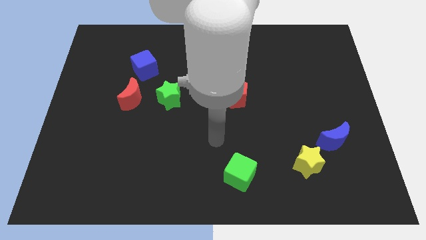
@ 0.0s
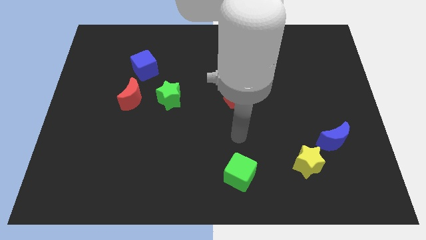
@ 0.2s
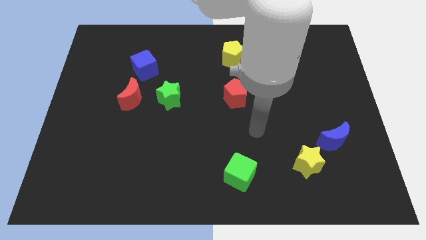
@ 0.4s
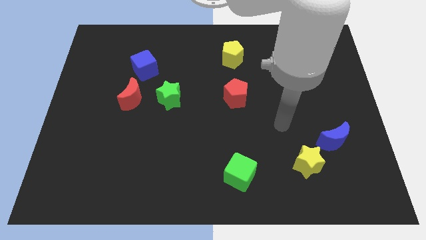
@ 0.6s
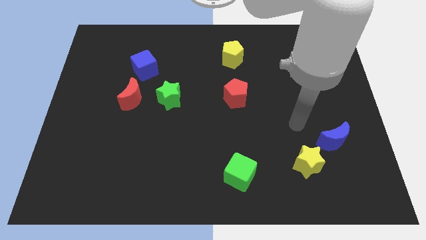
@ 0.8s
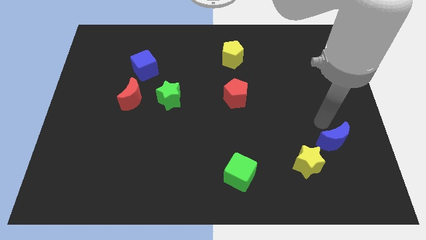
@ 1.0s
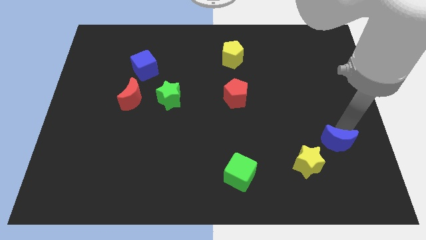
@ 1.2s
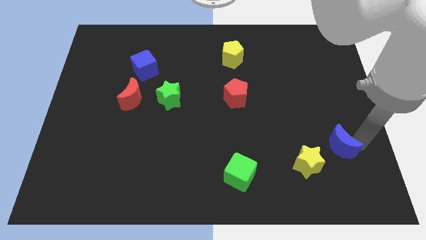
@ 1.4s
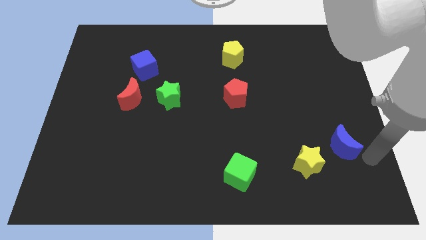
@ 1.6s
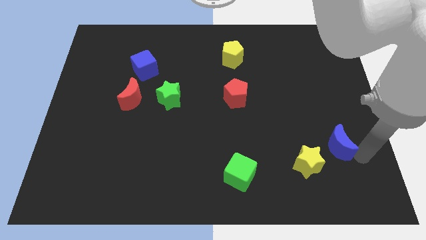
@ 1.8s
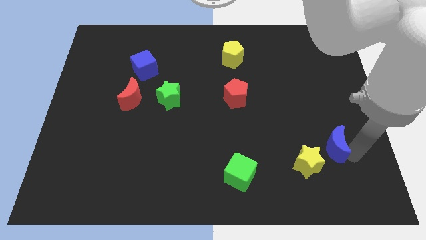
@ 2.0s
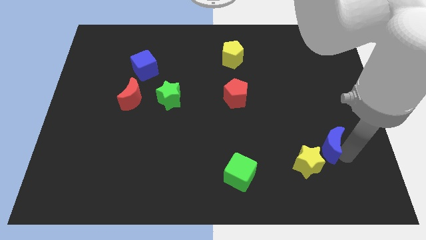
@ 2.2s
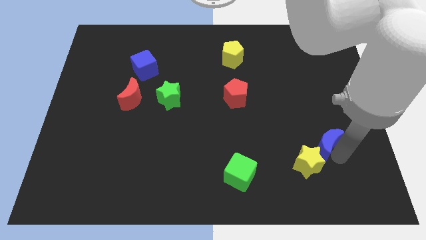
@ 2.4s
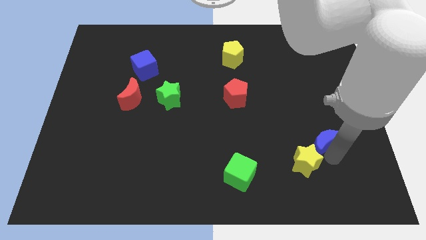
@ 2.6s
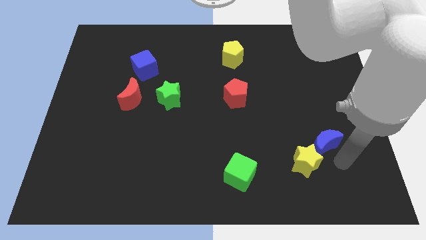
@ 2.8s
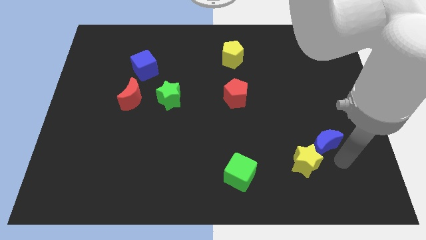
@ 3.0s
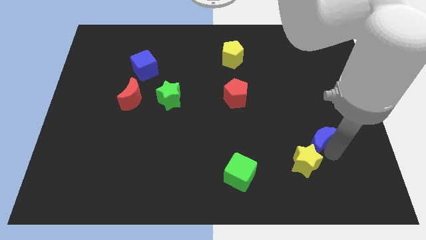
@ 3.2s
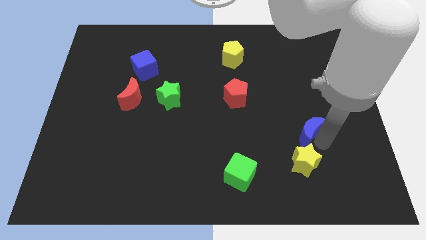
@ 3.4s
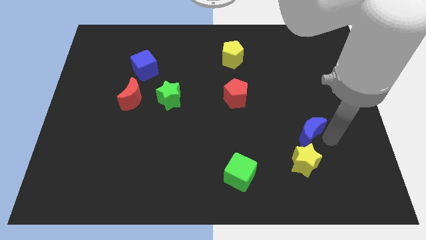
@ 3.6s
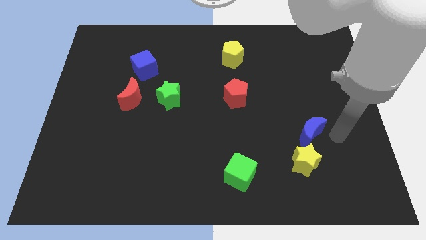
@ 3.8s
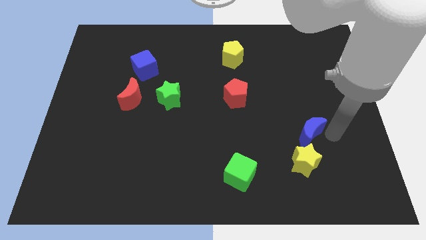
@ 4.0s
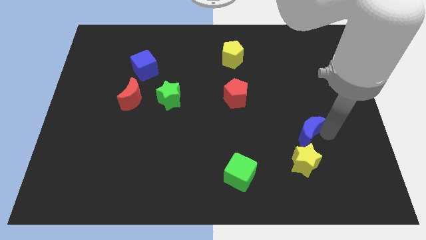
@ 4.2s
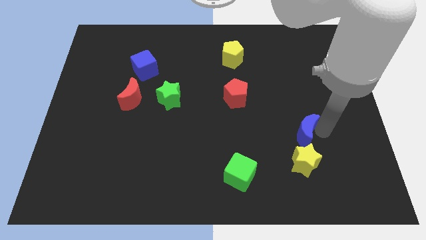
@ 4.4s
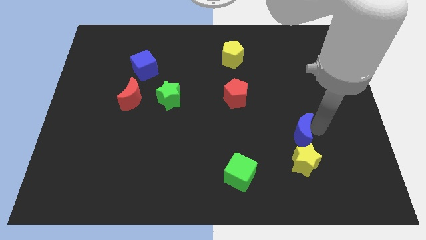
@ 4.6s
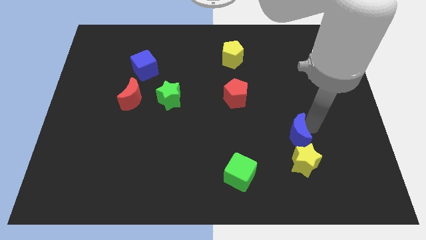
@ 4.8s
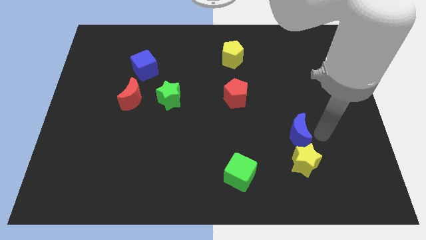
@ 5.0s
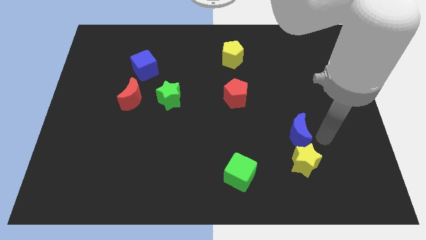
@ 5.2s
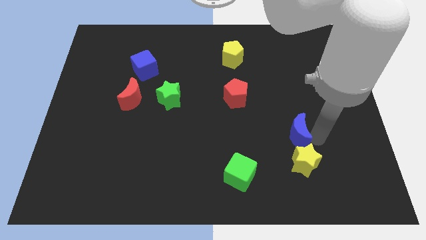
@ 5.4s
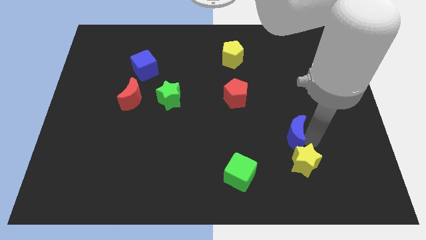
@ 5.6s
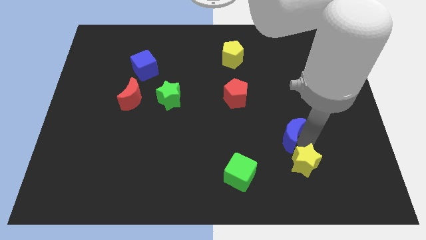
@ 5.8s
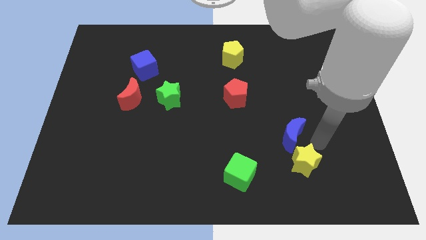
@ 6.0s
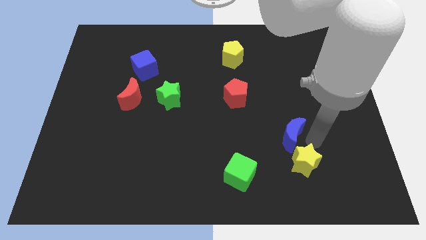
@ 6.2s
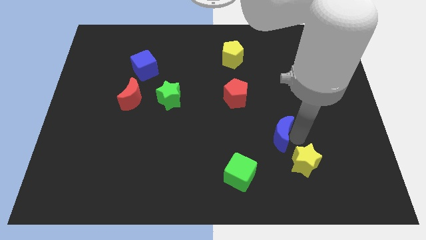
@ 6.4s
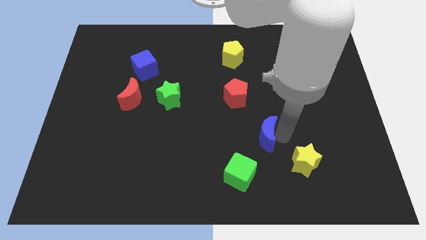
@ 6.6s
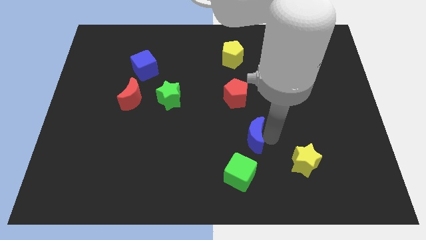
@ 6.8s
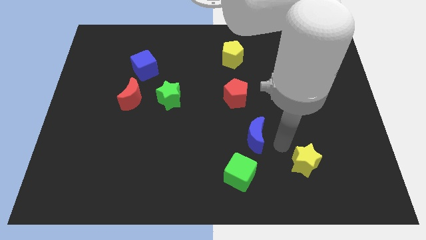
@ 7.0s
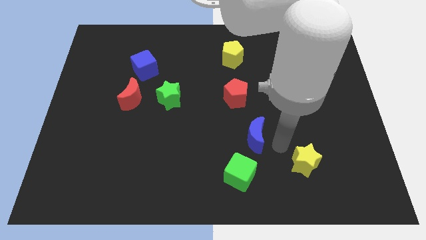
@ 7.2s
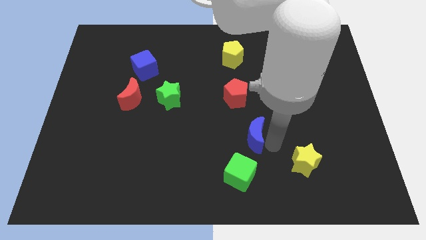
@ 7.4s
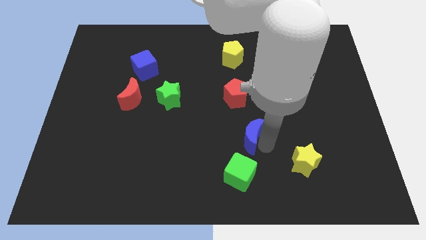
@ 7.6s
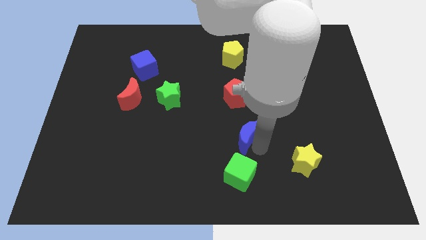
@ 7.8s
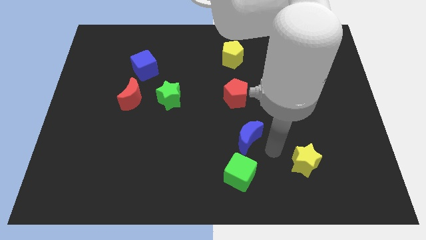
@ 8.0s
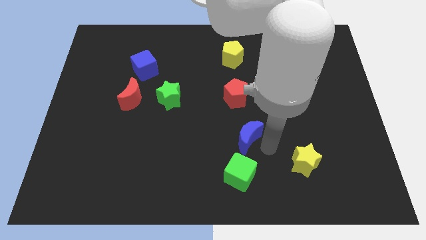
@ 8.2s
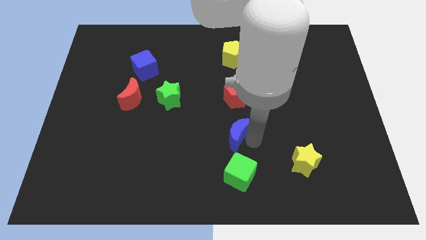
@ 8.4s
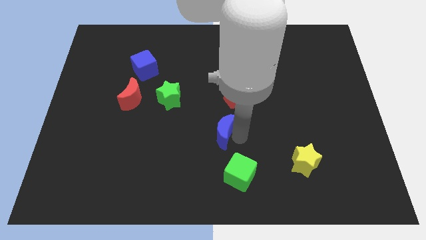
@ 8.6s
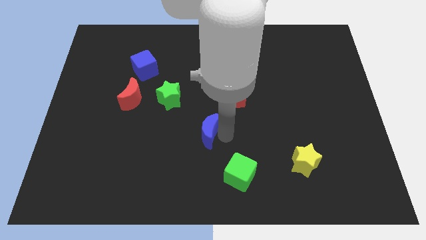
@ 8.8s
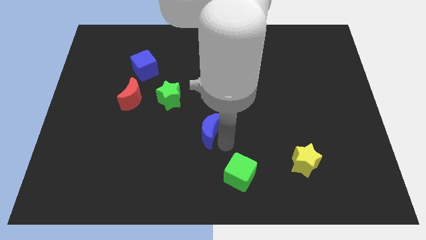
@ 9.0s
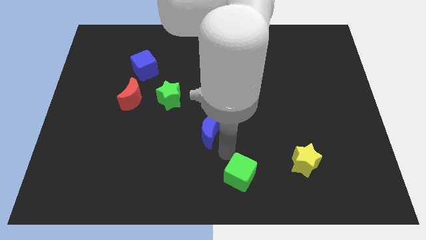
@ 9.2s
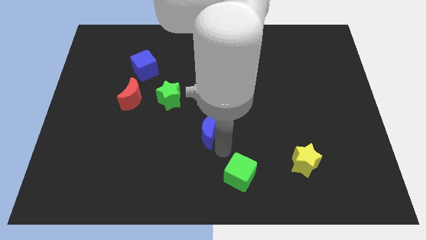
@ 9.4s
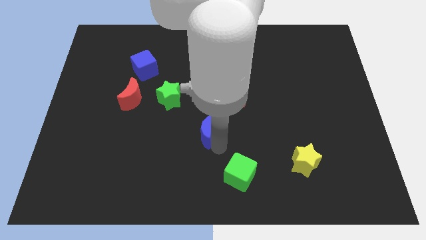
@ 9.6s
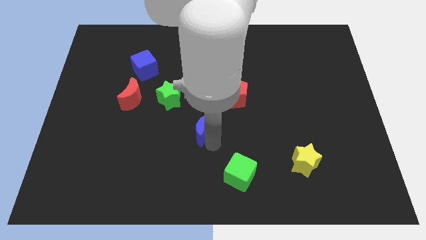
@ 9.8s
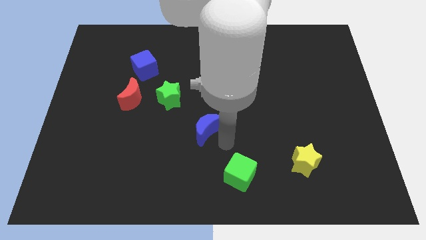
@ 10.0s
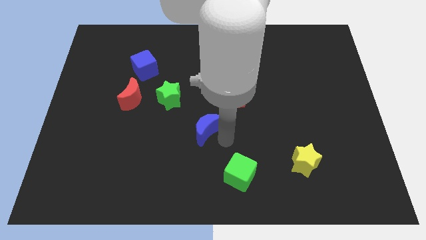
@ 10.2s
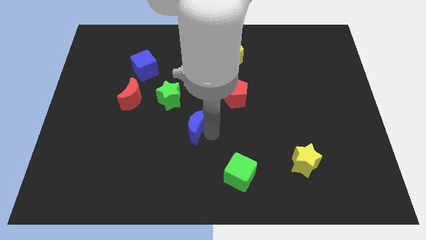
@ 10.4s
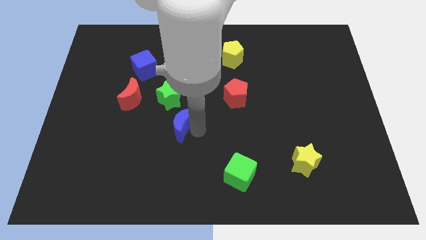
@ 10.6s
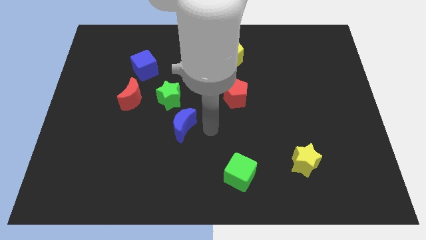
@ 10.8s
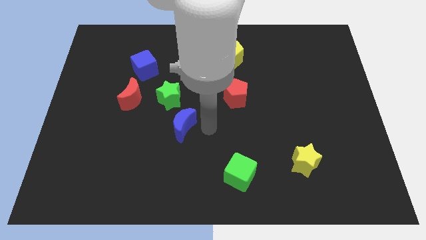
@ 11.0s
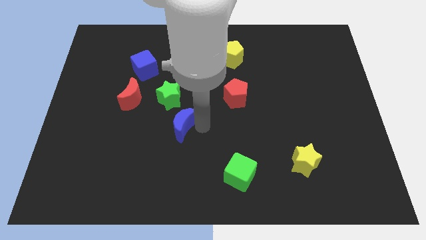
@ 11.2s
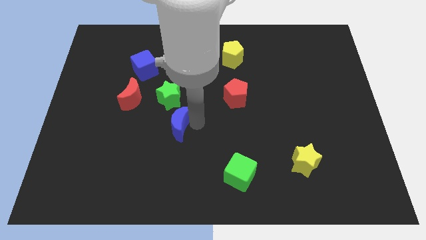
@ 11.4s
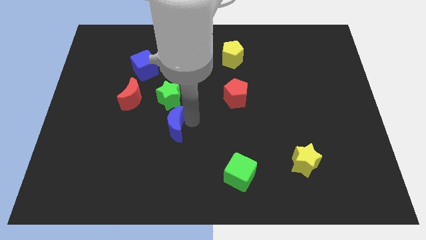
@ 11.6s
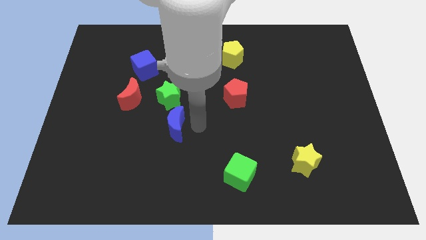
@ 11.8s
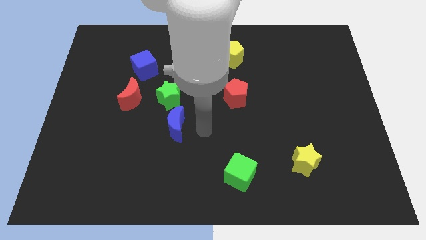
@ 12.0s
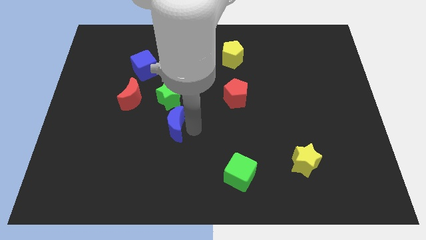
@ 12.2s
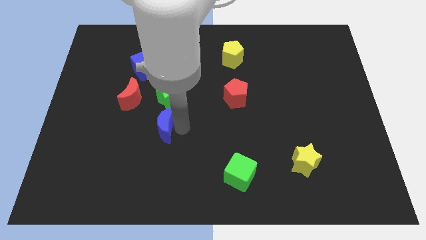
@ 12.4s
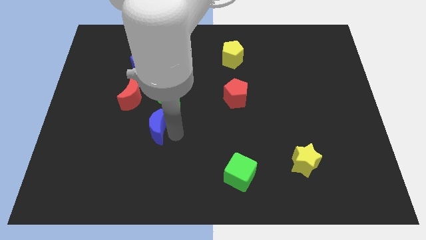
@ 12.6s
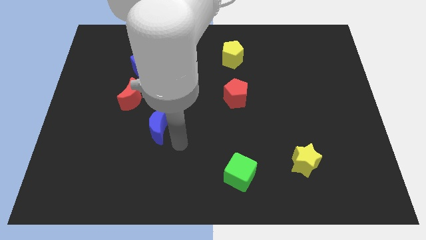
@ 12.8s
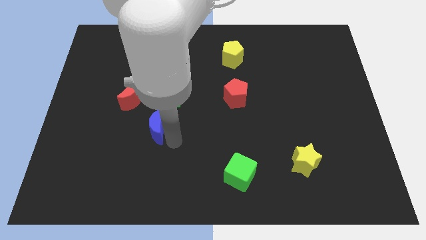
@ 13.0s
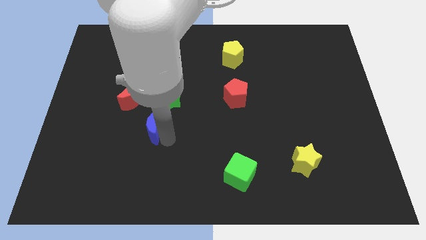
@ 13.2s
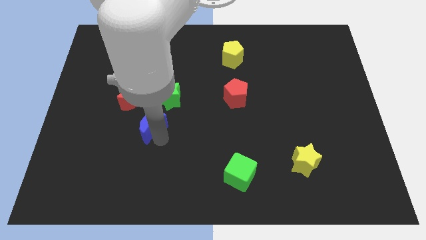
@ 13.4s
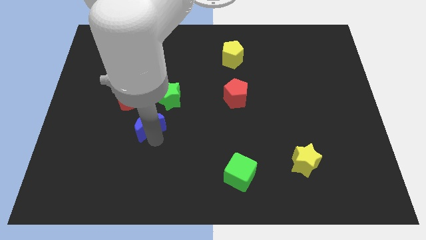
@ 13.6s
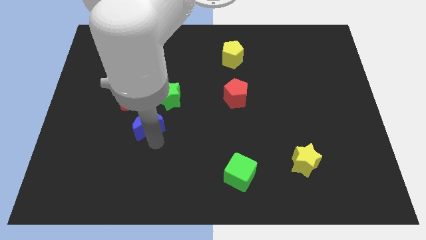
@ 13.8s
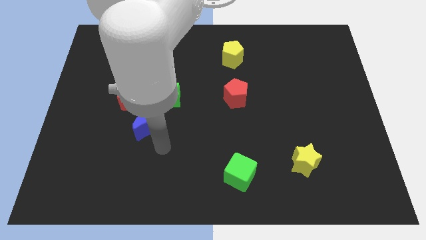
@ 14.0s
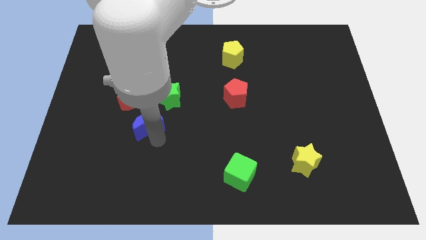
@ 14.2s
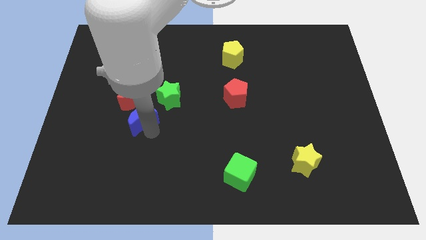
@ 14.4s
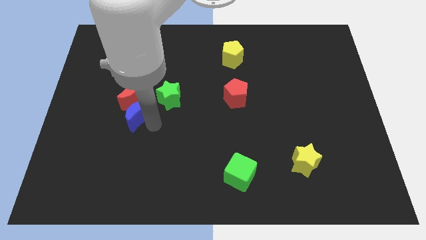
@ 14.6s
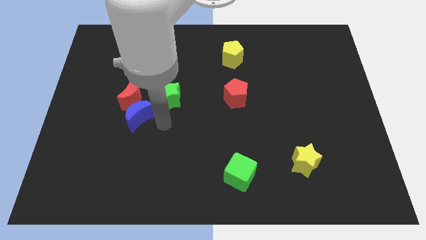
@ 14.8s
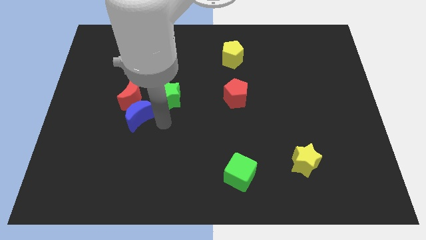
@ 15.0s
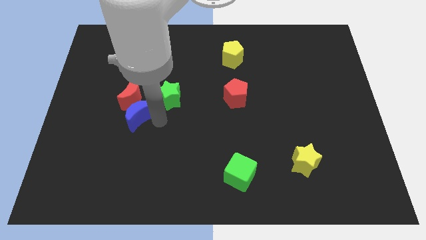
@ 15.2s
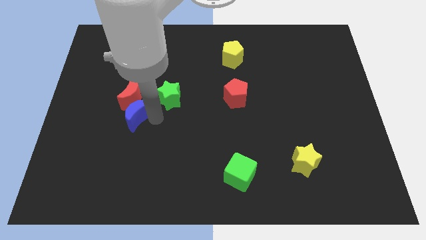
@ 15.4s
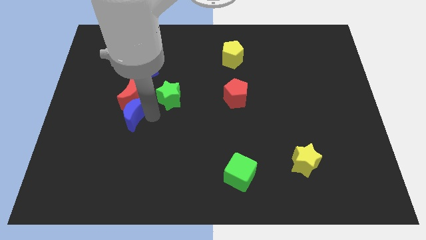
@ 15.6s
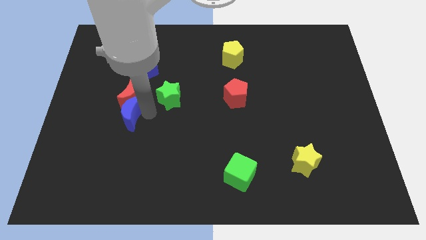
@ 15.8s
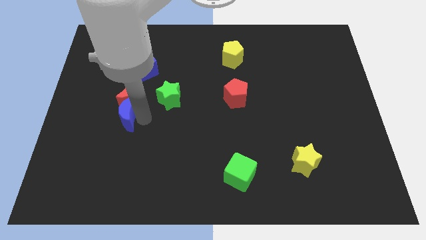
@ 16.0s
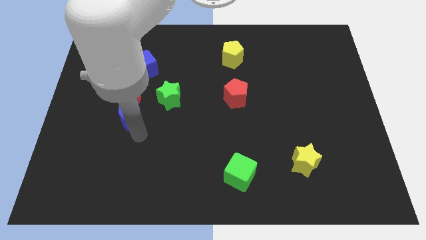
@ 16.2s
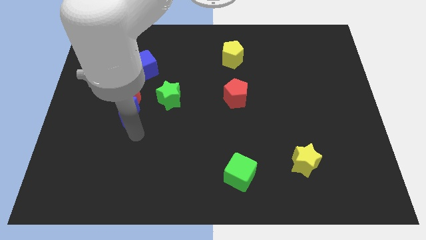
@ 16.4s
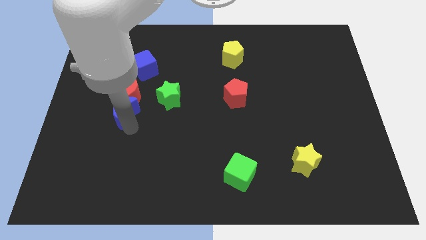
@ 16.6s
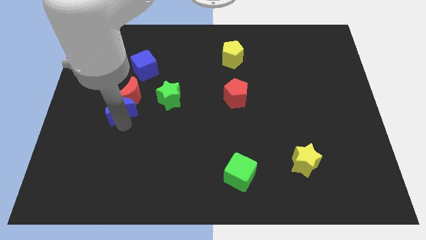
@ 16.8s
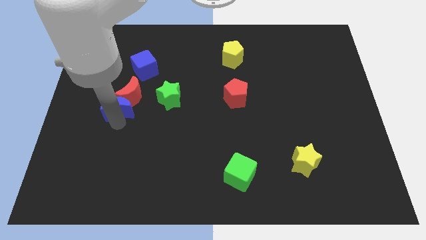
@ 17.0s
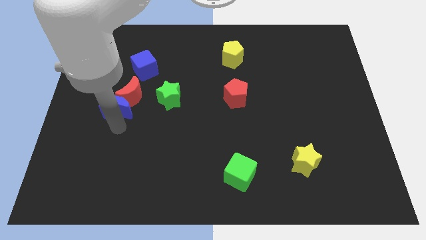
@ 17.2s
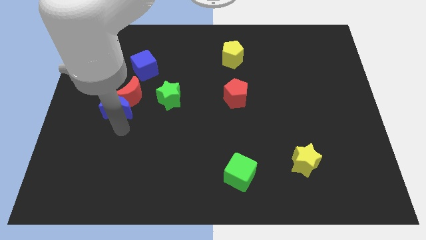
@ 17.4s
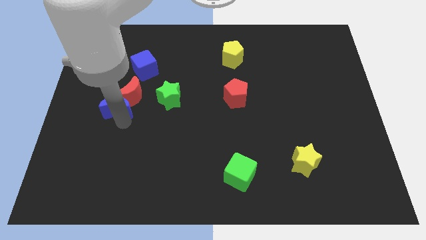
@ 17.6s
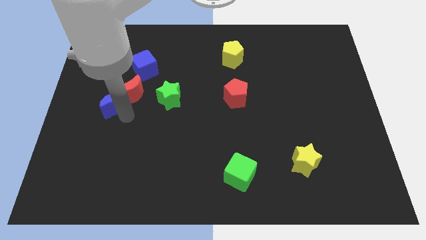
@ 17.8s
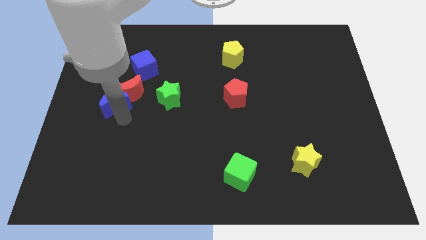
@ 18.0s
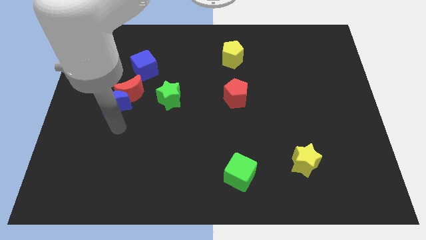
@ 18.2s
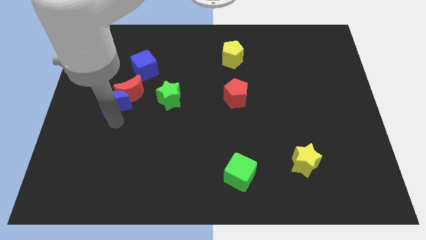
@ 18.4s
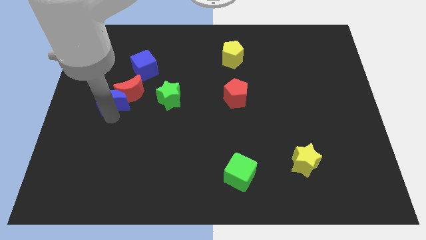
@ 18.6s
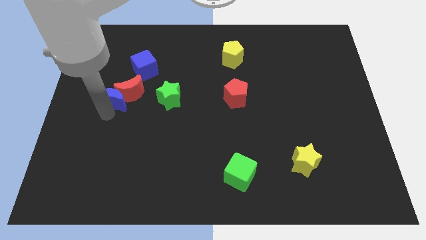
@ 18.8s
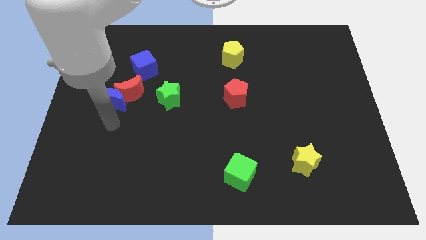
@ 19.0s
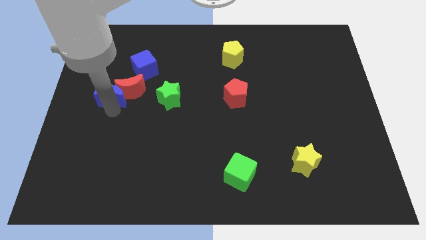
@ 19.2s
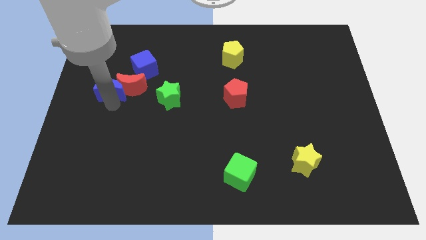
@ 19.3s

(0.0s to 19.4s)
move the blue moon diagonally up and to the left of the red moon
